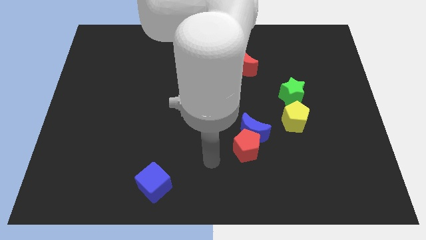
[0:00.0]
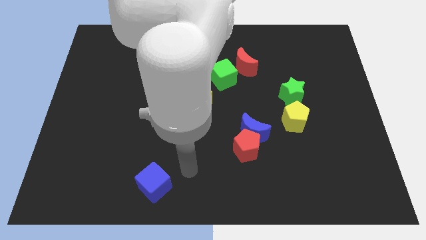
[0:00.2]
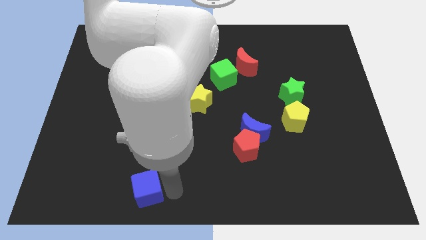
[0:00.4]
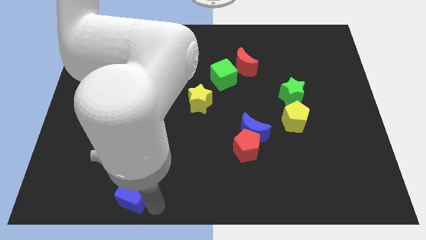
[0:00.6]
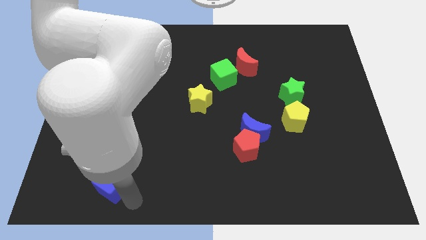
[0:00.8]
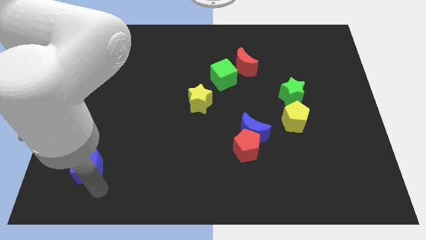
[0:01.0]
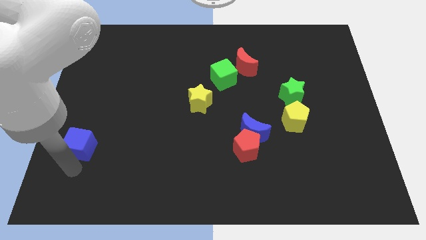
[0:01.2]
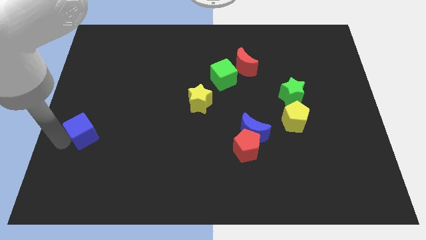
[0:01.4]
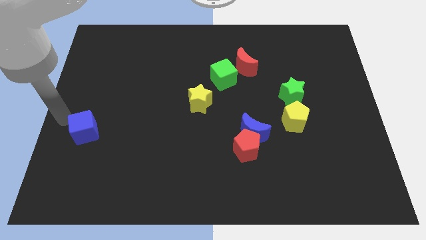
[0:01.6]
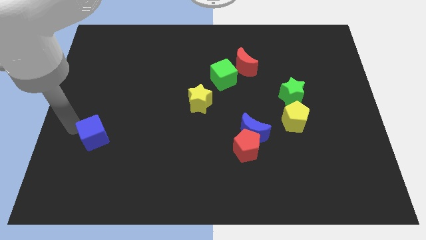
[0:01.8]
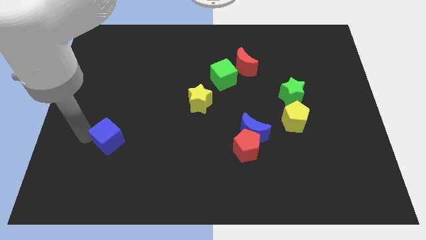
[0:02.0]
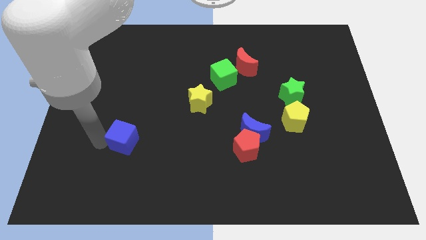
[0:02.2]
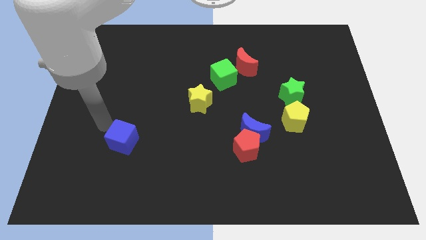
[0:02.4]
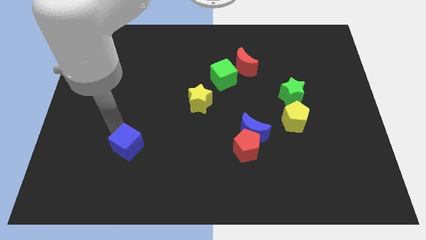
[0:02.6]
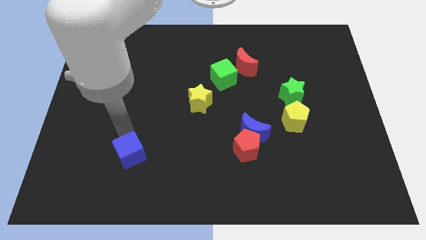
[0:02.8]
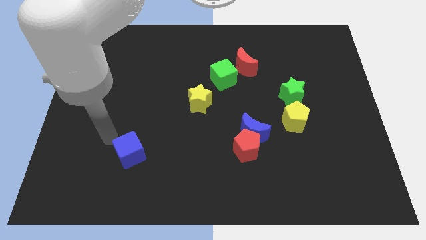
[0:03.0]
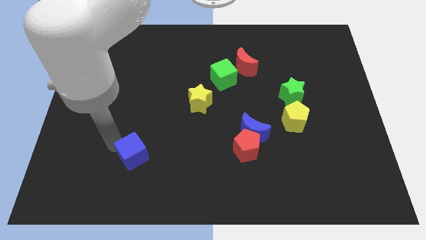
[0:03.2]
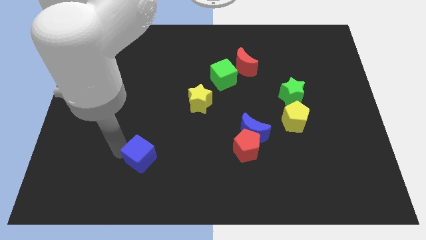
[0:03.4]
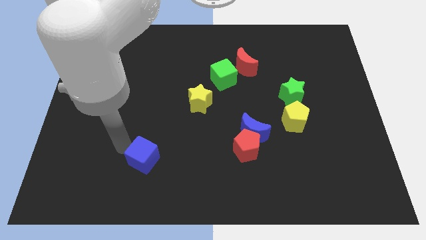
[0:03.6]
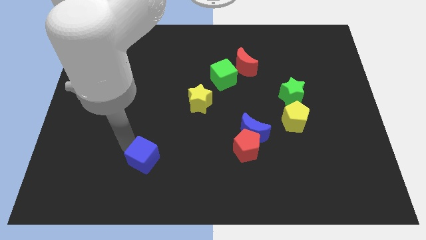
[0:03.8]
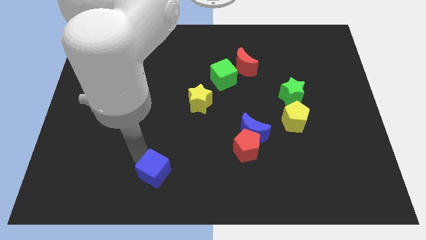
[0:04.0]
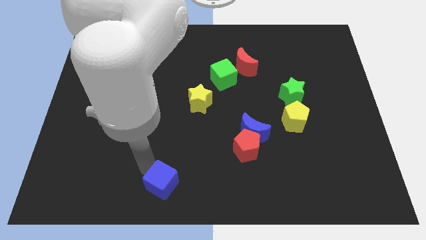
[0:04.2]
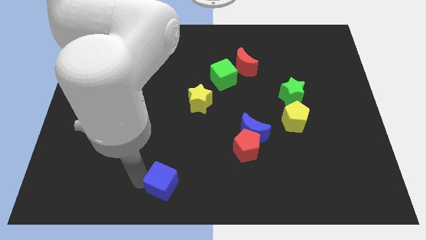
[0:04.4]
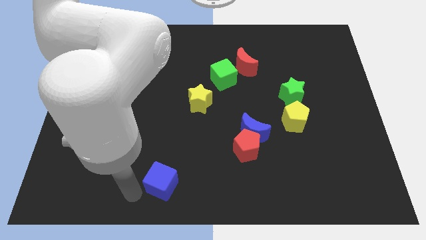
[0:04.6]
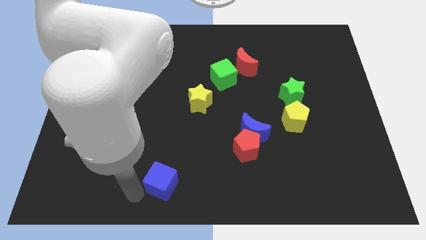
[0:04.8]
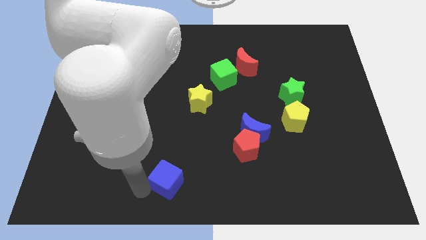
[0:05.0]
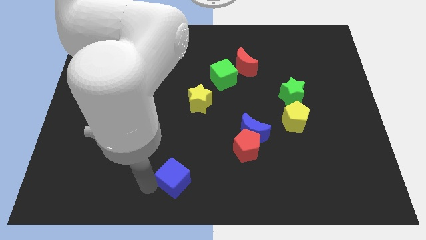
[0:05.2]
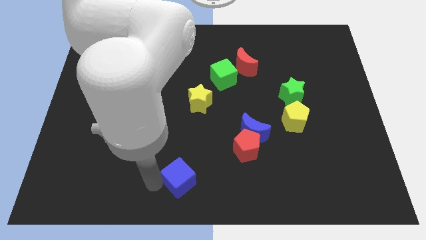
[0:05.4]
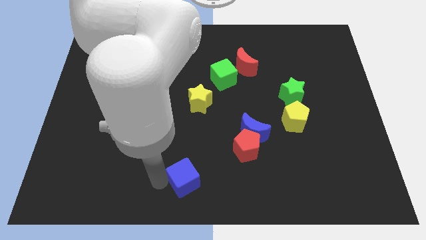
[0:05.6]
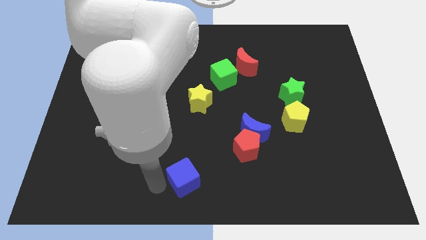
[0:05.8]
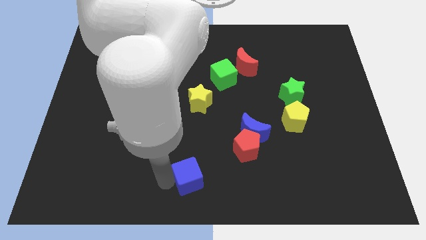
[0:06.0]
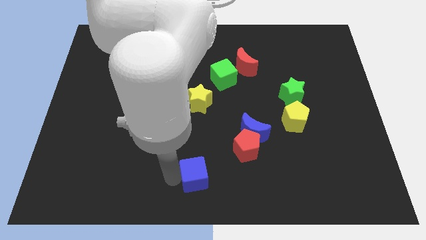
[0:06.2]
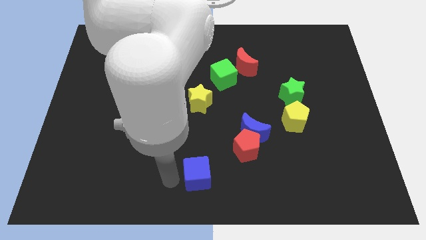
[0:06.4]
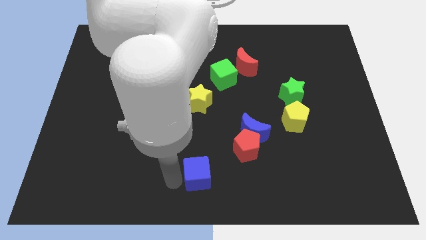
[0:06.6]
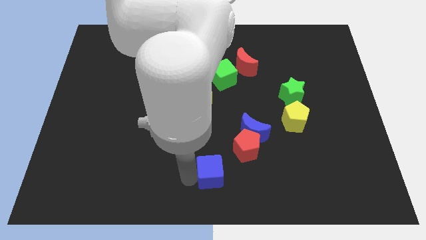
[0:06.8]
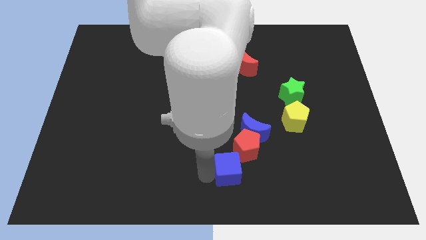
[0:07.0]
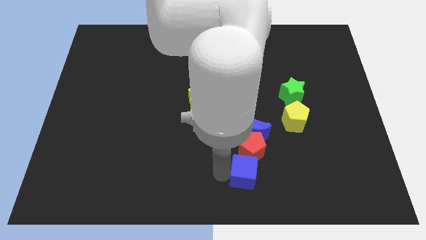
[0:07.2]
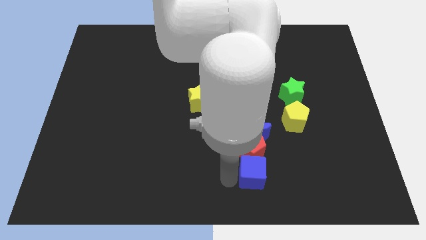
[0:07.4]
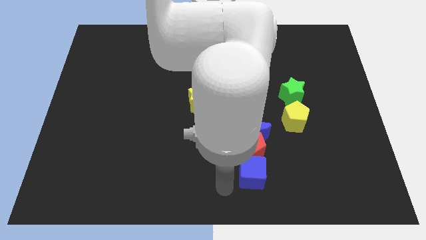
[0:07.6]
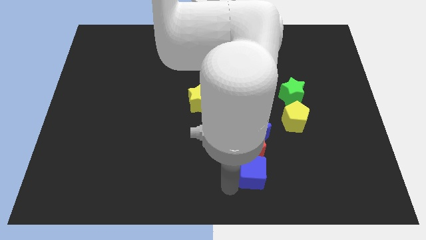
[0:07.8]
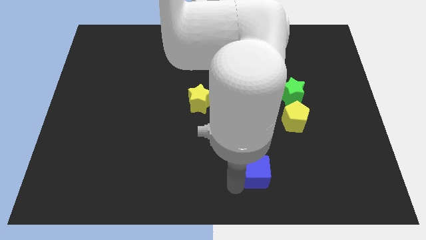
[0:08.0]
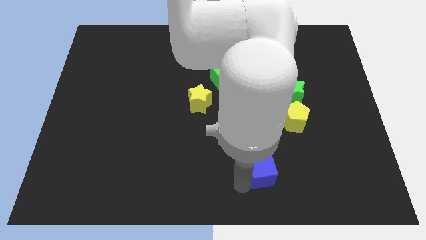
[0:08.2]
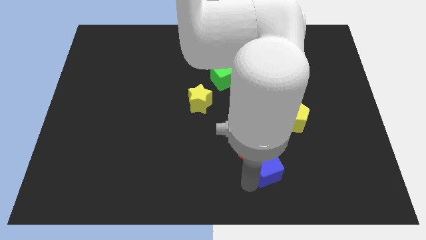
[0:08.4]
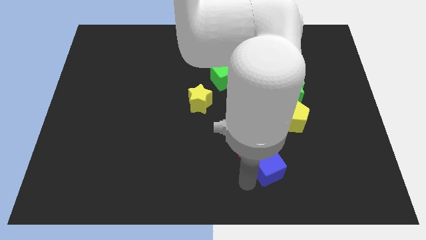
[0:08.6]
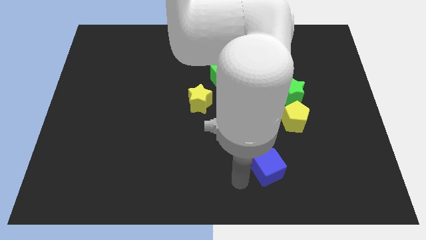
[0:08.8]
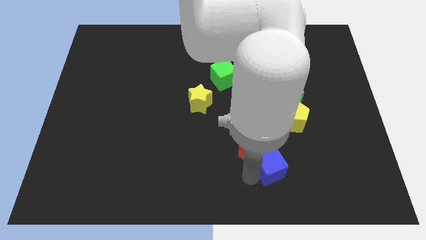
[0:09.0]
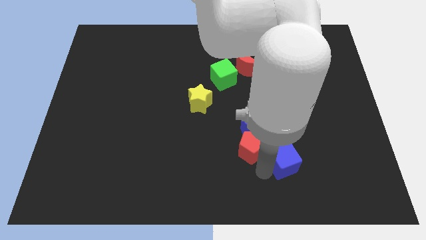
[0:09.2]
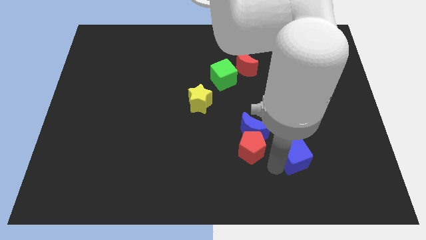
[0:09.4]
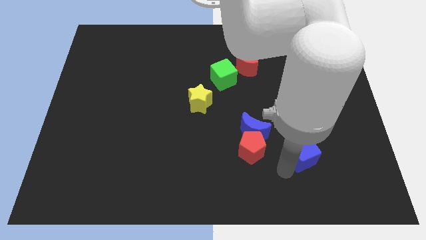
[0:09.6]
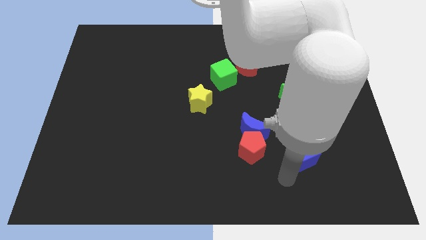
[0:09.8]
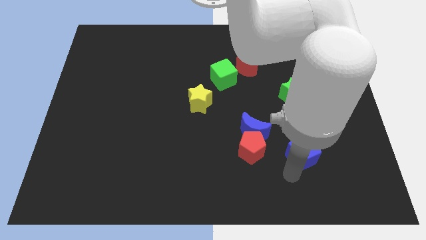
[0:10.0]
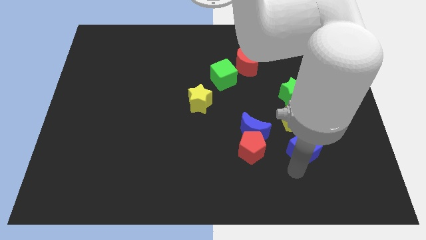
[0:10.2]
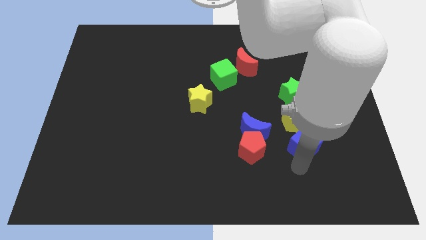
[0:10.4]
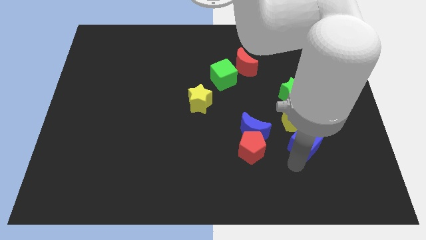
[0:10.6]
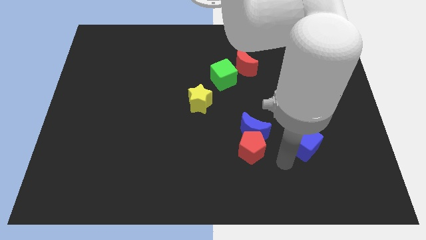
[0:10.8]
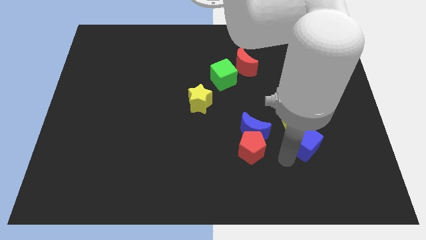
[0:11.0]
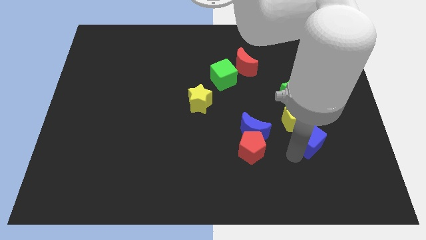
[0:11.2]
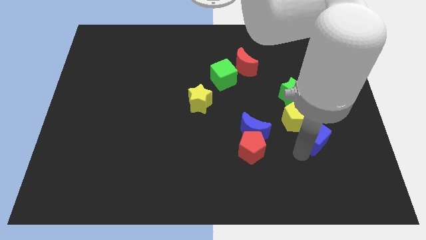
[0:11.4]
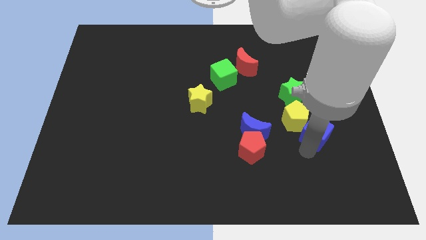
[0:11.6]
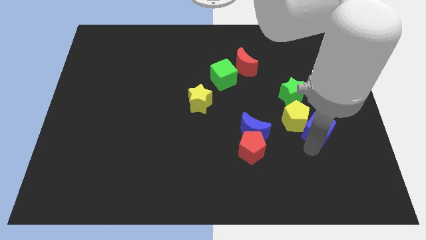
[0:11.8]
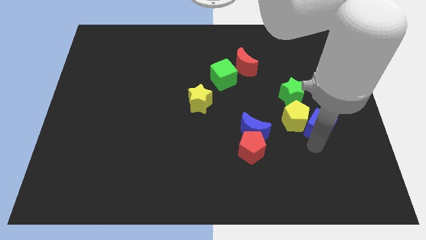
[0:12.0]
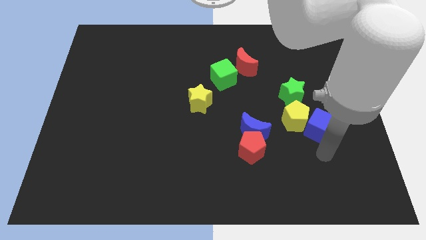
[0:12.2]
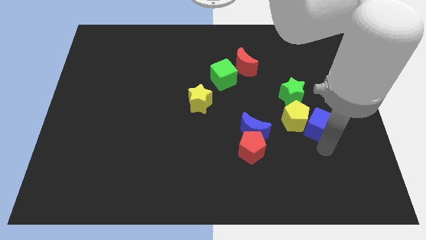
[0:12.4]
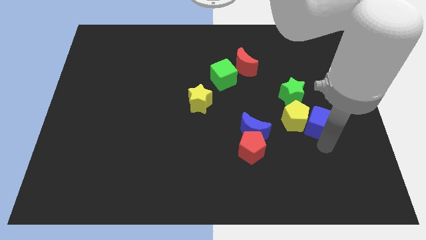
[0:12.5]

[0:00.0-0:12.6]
move the blue cube to the top right side of the yellow pentagon

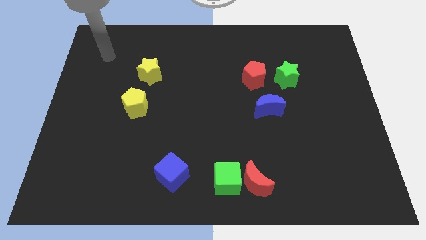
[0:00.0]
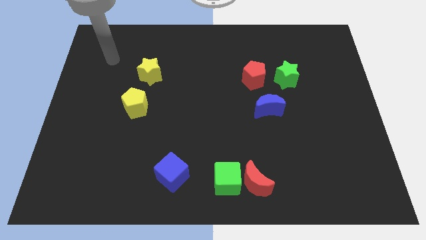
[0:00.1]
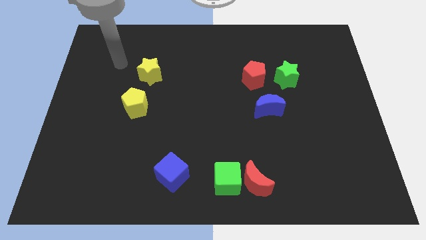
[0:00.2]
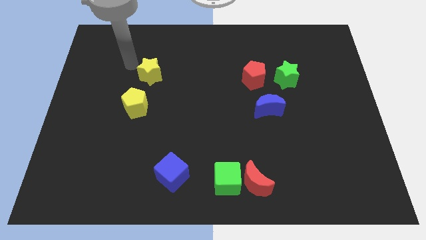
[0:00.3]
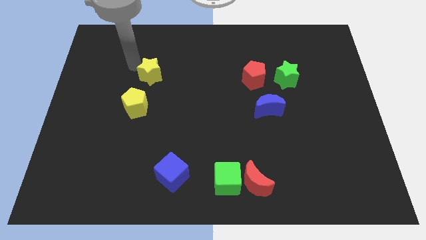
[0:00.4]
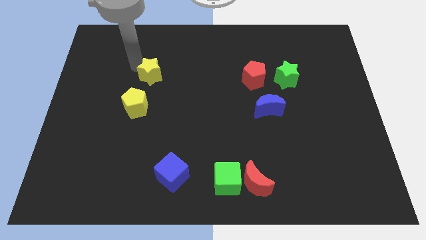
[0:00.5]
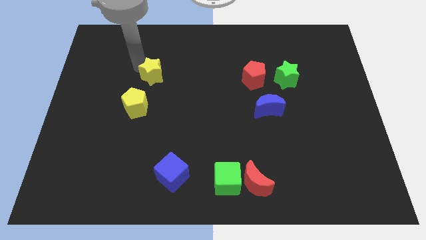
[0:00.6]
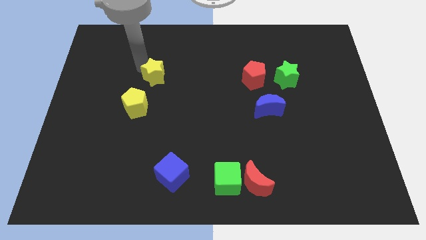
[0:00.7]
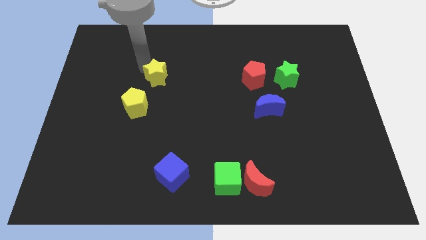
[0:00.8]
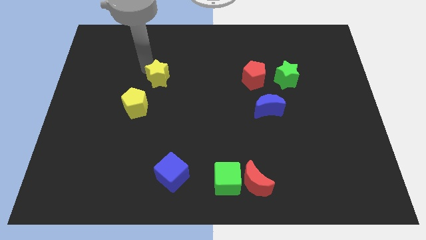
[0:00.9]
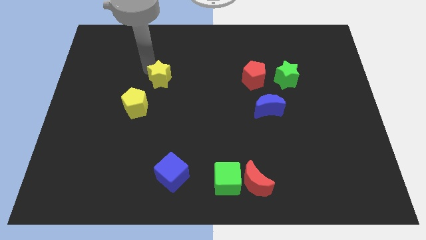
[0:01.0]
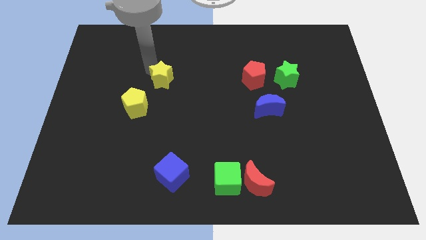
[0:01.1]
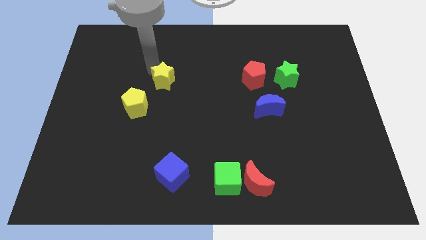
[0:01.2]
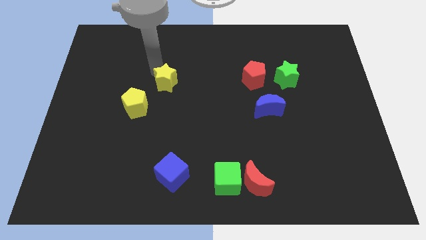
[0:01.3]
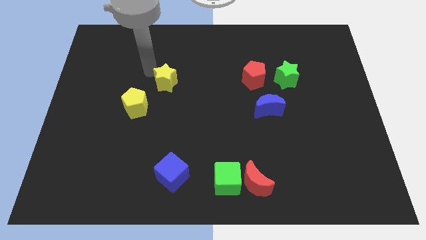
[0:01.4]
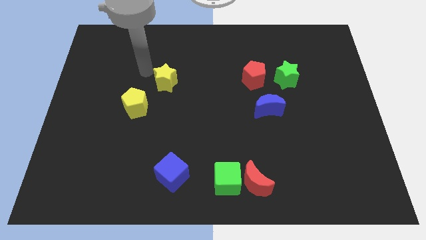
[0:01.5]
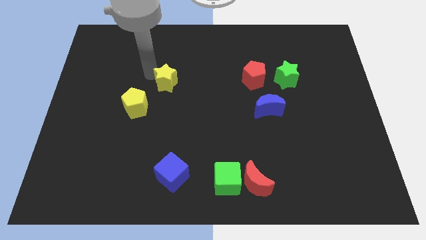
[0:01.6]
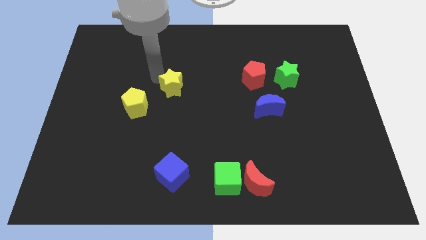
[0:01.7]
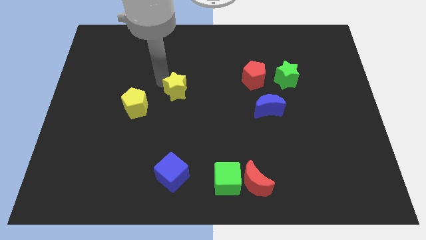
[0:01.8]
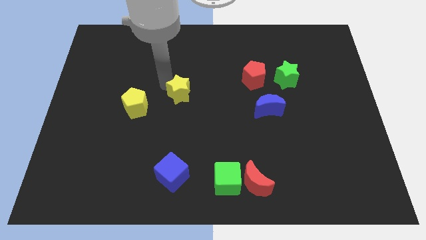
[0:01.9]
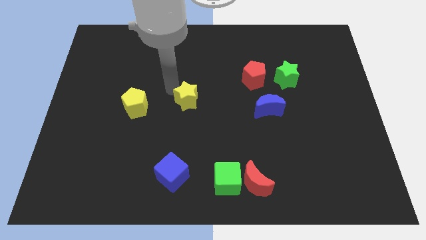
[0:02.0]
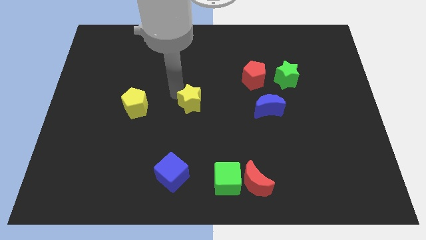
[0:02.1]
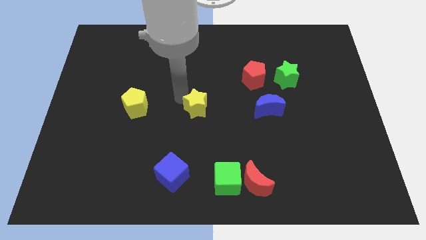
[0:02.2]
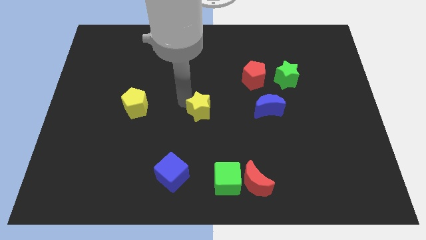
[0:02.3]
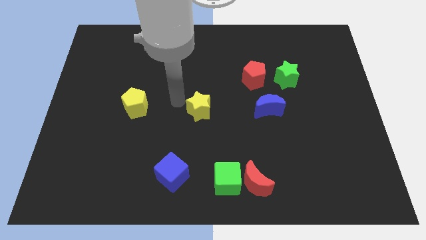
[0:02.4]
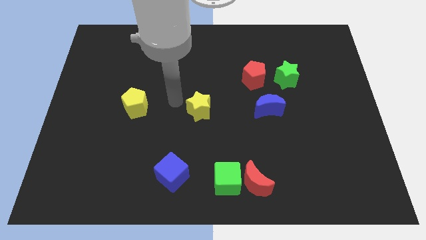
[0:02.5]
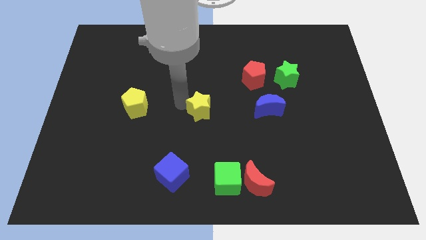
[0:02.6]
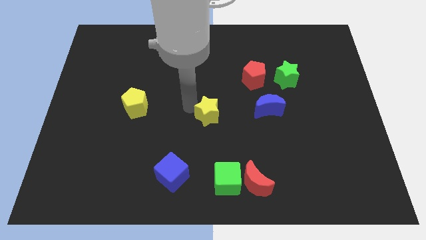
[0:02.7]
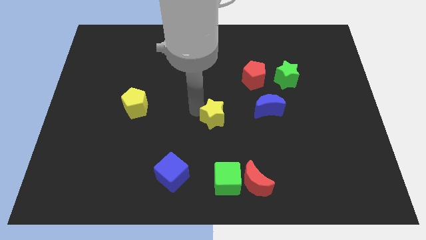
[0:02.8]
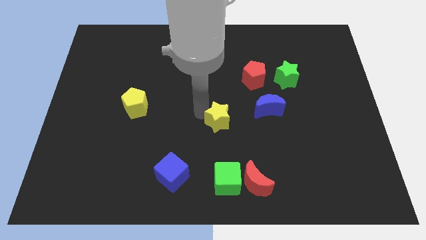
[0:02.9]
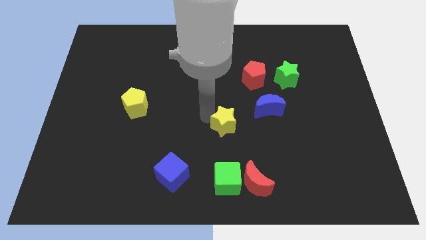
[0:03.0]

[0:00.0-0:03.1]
move the yellow star diagonally down and to the left of the blue moon
